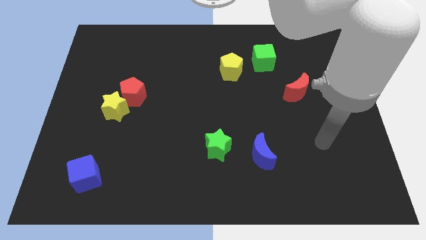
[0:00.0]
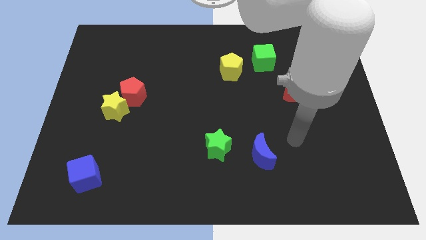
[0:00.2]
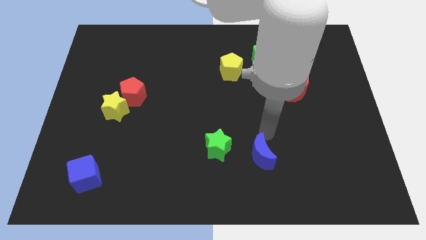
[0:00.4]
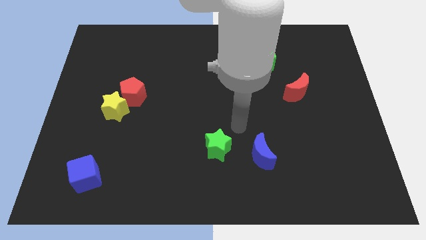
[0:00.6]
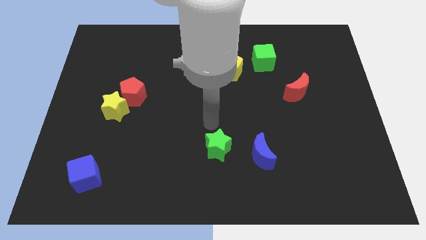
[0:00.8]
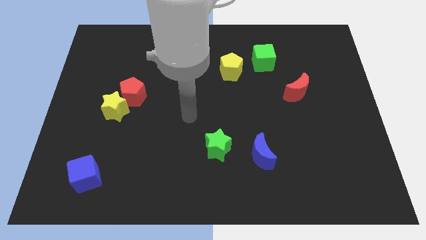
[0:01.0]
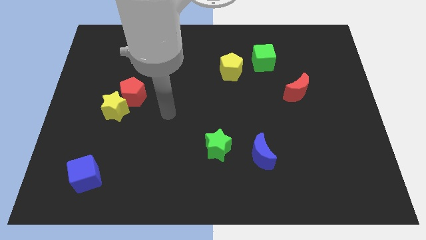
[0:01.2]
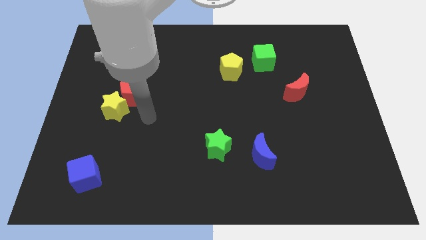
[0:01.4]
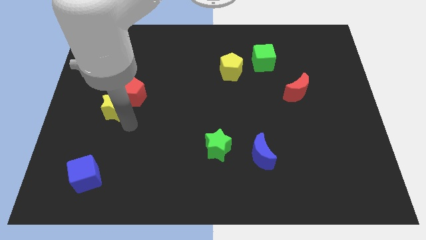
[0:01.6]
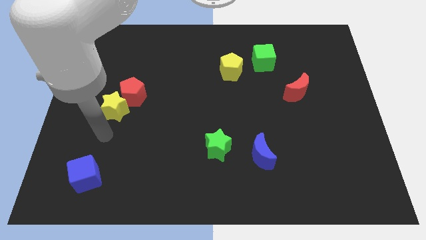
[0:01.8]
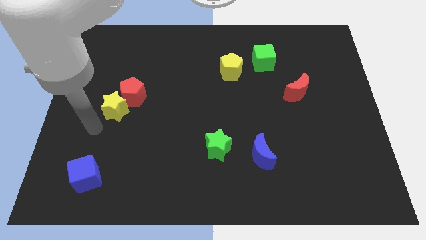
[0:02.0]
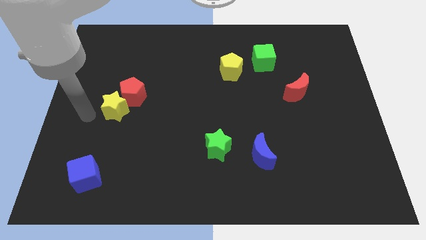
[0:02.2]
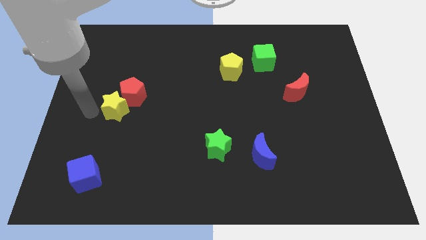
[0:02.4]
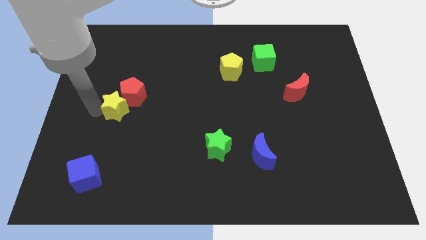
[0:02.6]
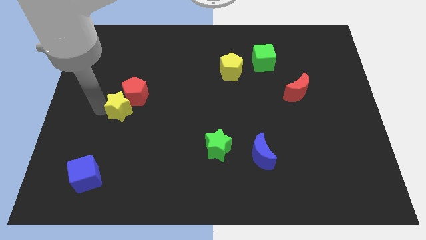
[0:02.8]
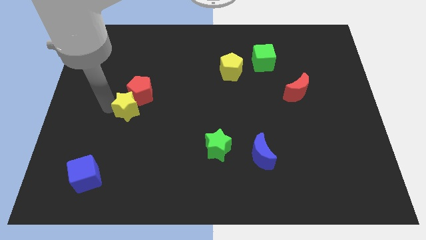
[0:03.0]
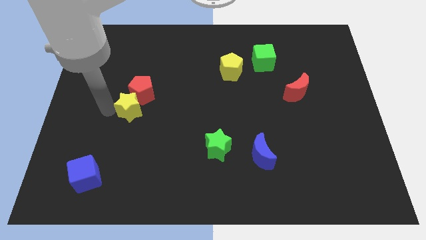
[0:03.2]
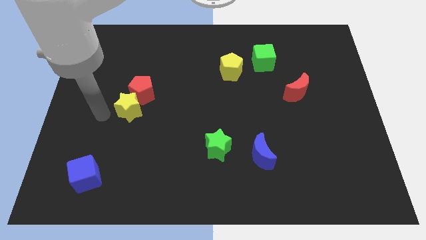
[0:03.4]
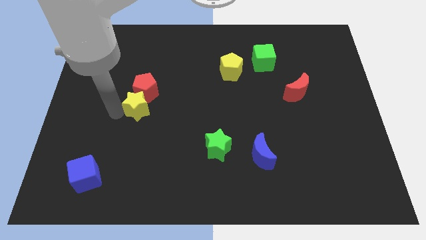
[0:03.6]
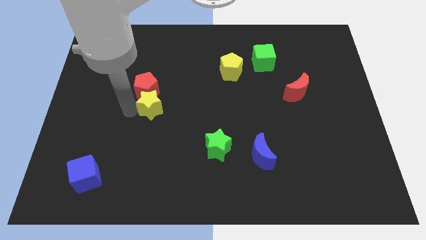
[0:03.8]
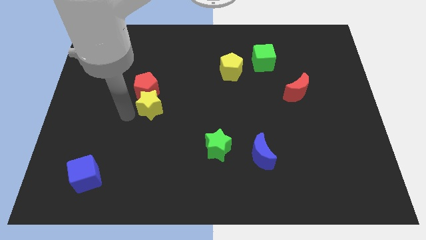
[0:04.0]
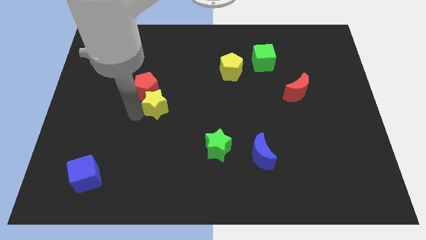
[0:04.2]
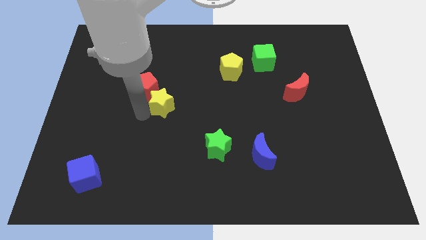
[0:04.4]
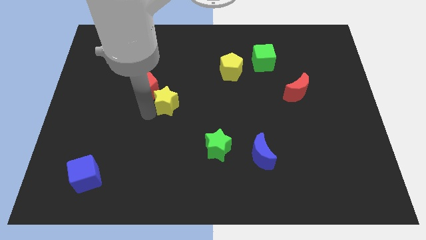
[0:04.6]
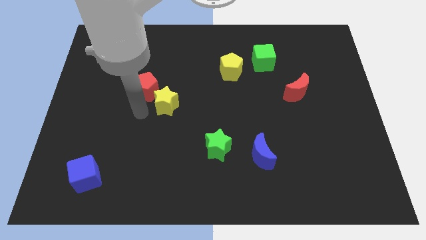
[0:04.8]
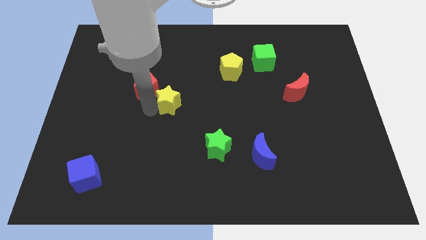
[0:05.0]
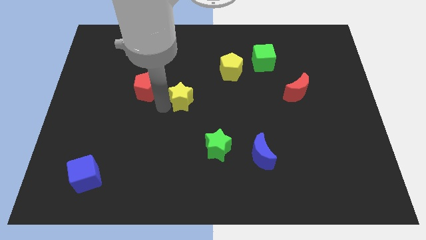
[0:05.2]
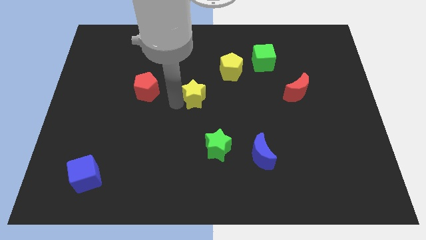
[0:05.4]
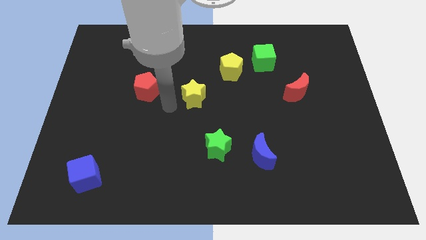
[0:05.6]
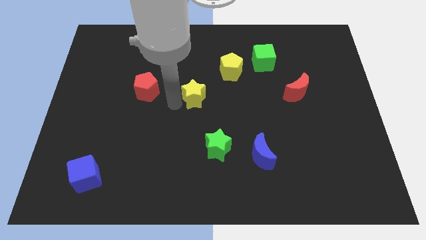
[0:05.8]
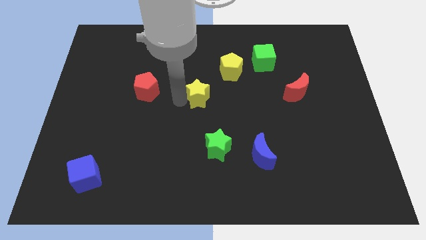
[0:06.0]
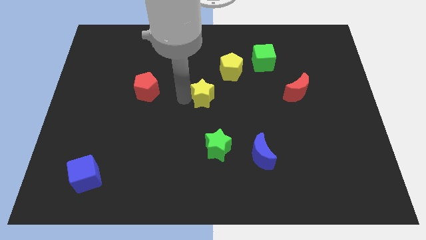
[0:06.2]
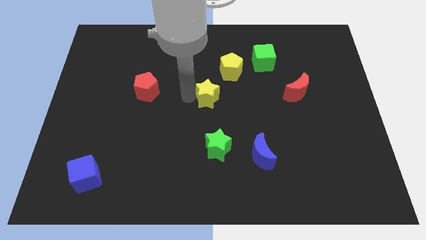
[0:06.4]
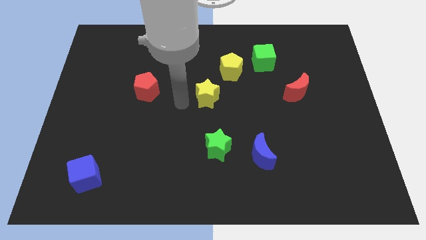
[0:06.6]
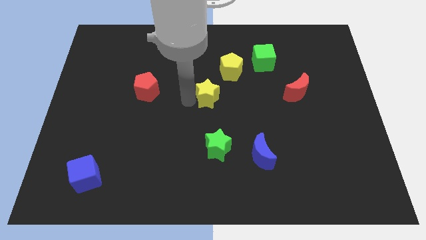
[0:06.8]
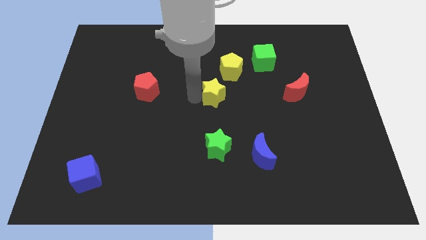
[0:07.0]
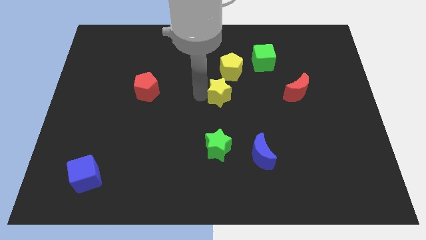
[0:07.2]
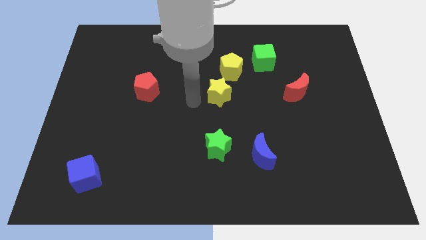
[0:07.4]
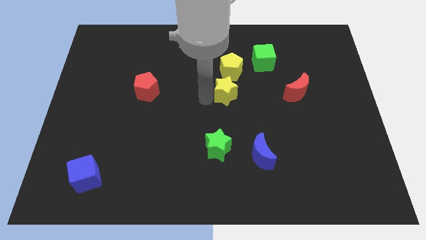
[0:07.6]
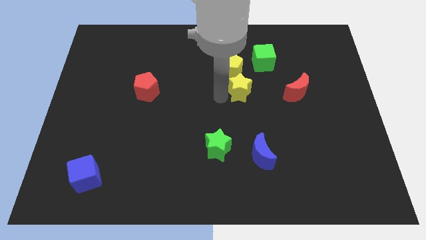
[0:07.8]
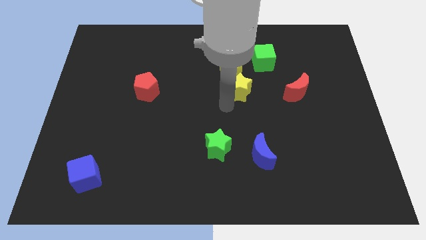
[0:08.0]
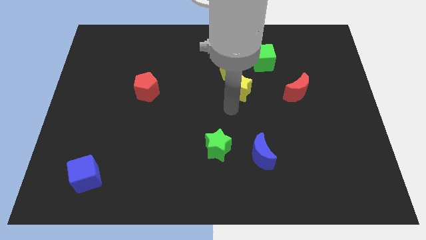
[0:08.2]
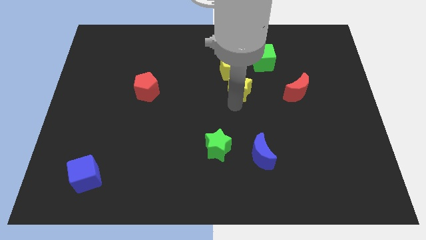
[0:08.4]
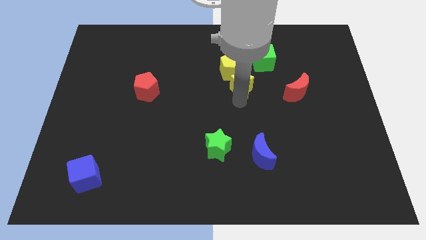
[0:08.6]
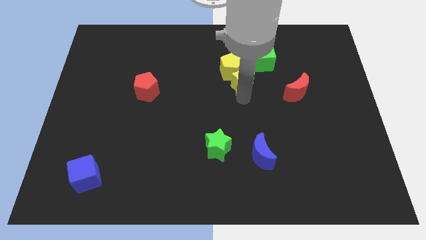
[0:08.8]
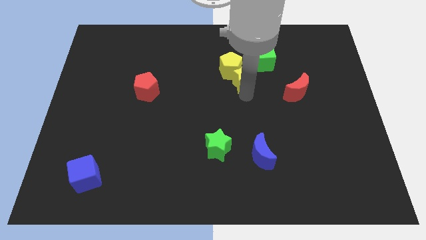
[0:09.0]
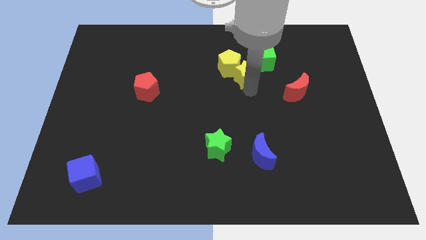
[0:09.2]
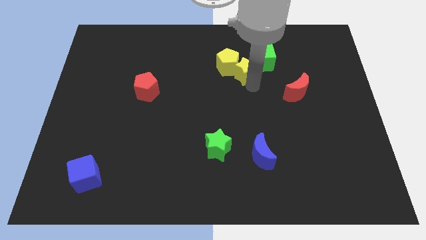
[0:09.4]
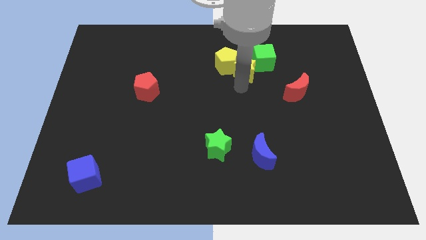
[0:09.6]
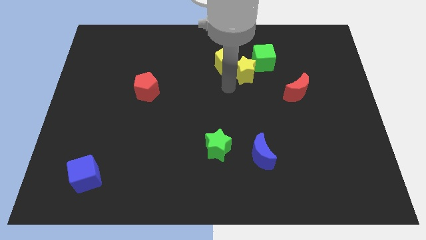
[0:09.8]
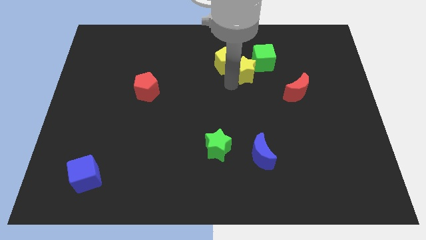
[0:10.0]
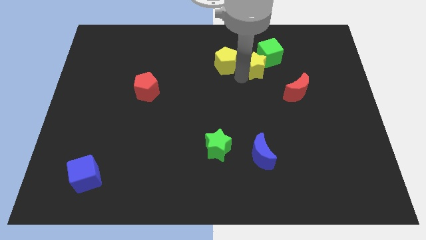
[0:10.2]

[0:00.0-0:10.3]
put the yellow star close to the green cube

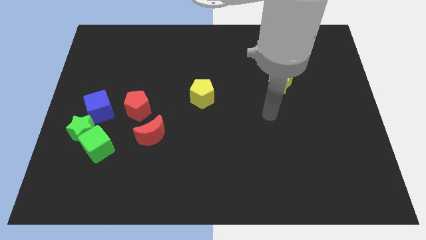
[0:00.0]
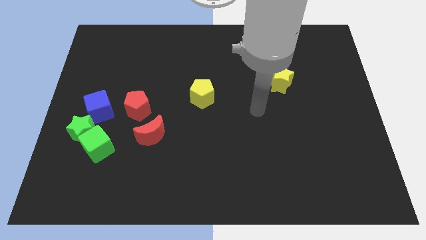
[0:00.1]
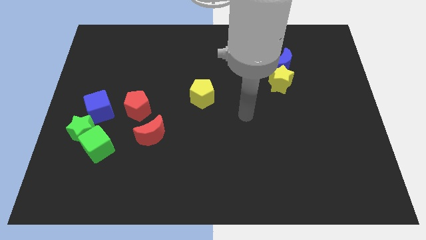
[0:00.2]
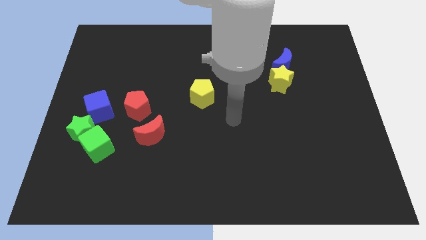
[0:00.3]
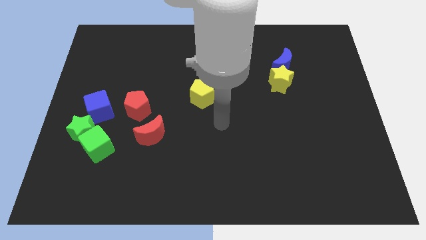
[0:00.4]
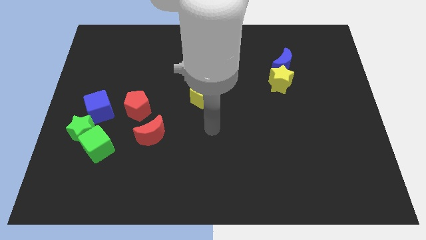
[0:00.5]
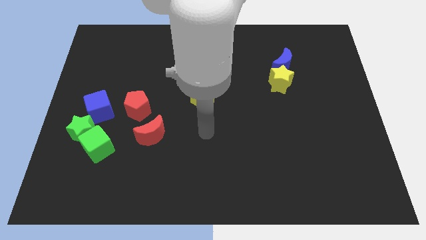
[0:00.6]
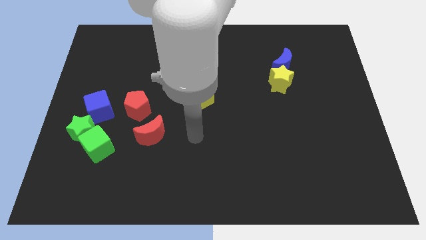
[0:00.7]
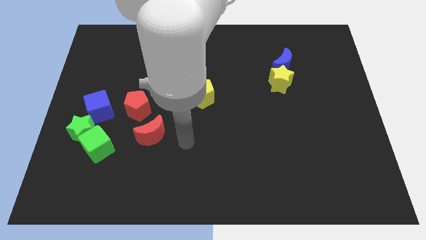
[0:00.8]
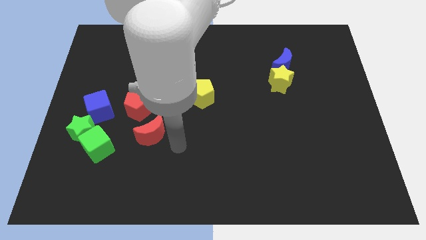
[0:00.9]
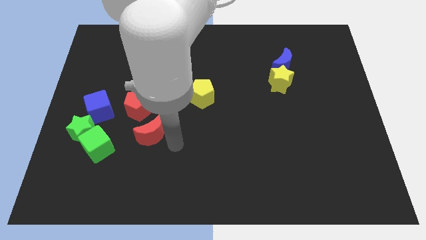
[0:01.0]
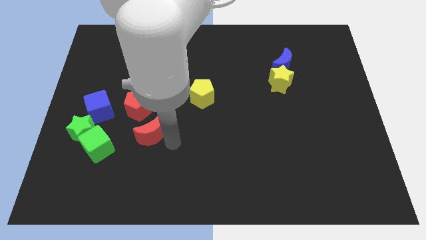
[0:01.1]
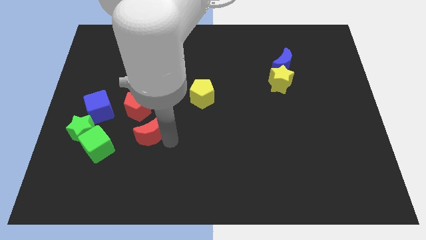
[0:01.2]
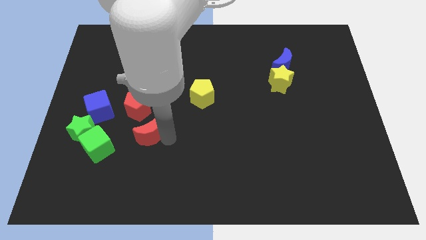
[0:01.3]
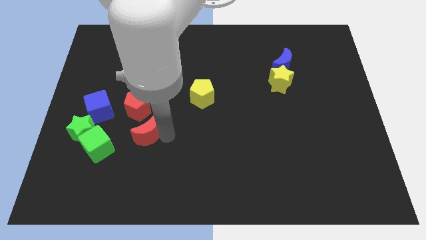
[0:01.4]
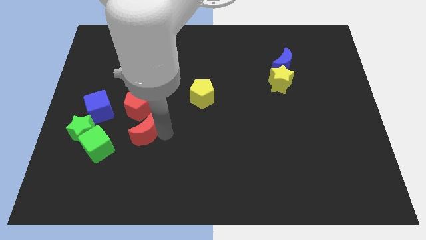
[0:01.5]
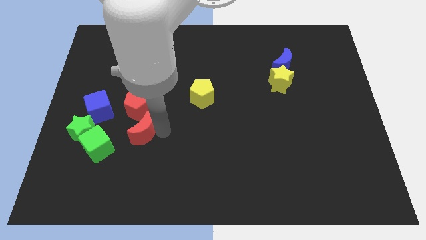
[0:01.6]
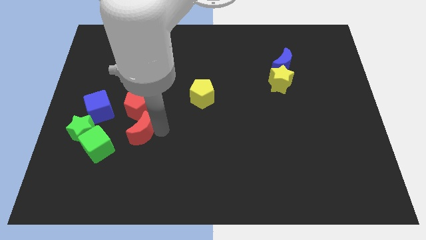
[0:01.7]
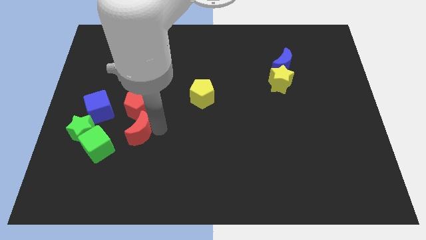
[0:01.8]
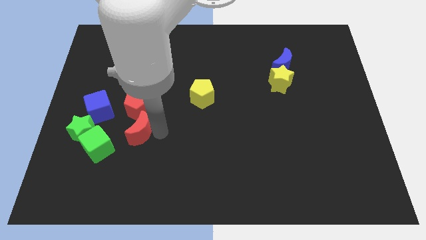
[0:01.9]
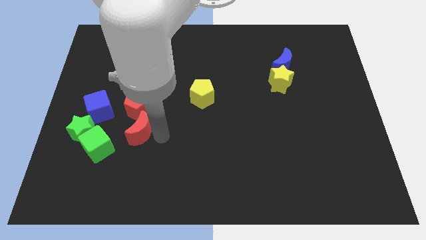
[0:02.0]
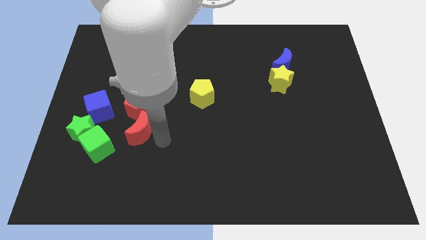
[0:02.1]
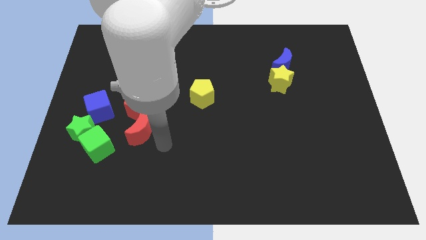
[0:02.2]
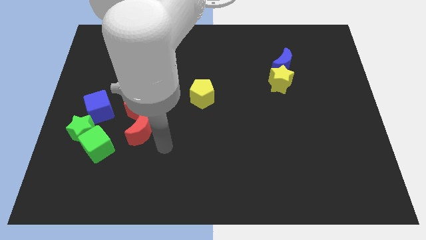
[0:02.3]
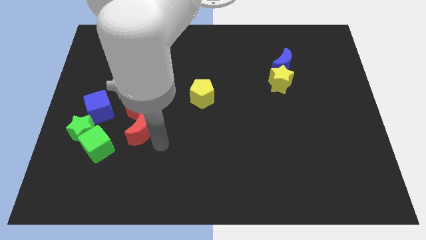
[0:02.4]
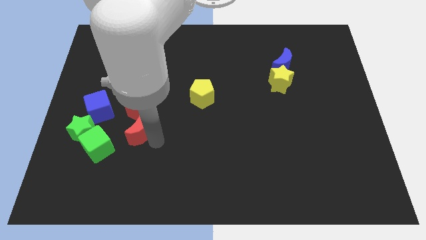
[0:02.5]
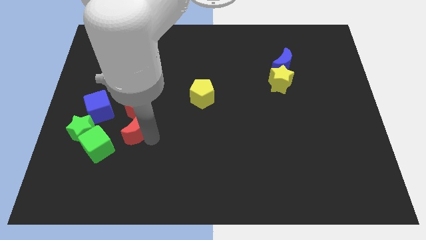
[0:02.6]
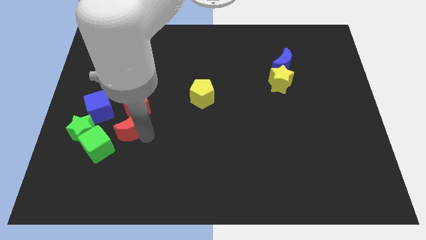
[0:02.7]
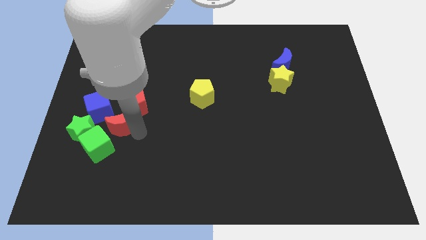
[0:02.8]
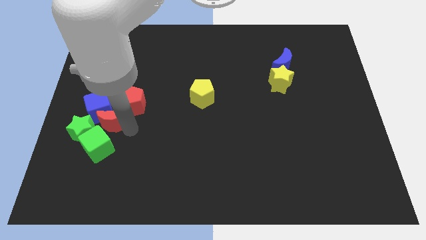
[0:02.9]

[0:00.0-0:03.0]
push the red moon next to the blue cube
